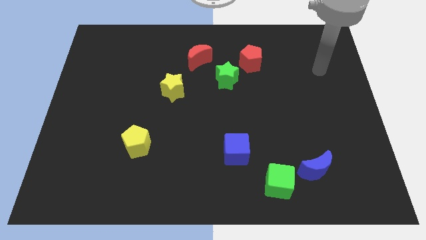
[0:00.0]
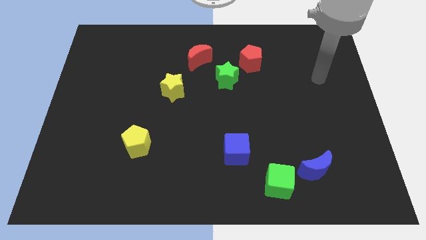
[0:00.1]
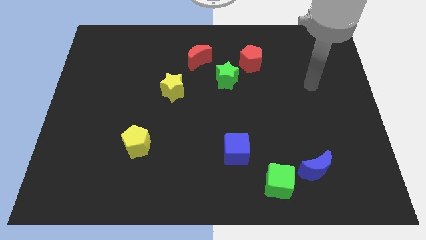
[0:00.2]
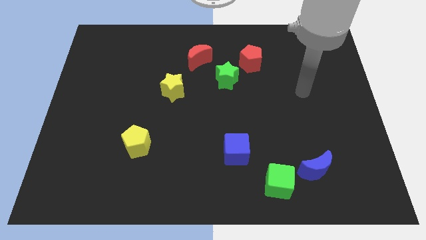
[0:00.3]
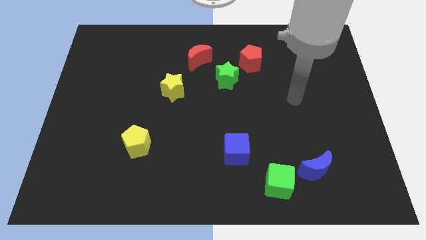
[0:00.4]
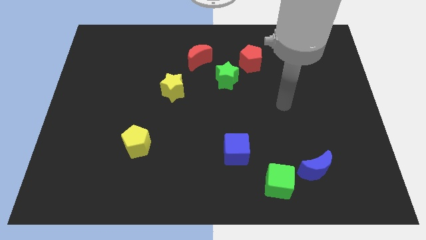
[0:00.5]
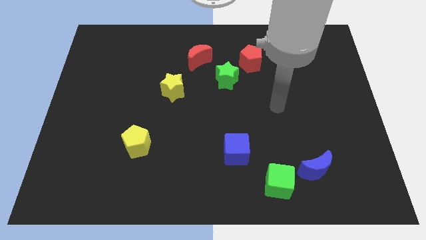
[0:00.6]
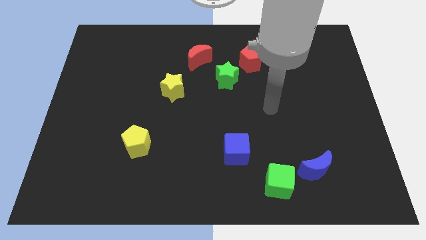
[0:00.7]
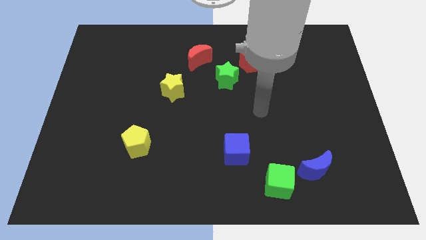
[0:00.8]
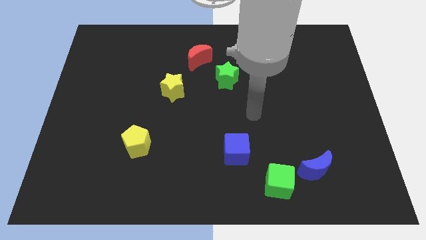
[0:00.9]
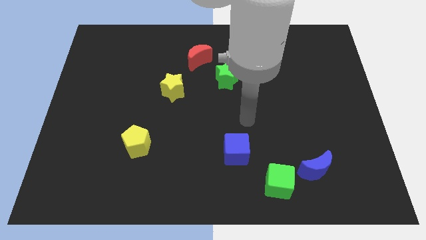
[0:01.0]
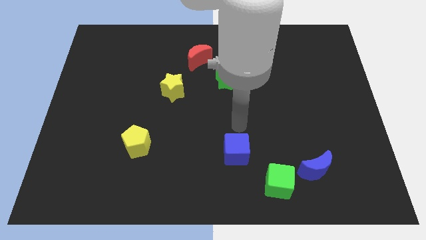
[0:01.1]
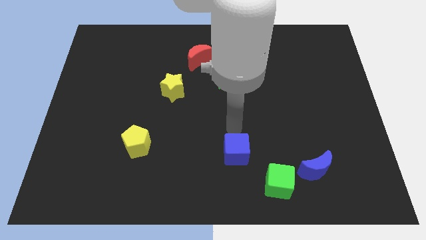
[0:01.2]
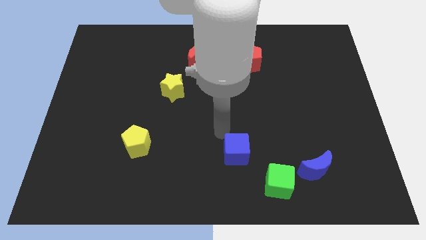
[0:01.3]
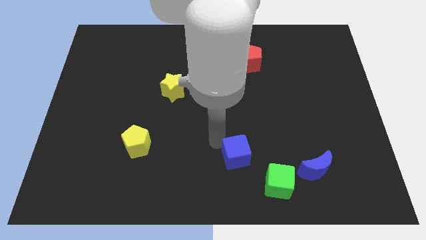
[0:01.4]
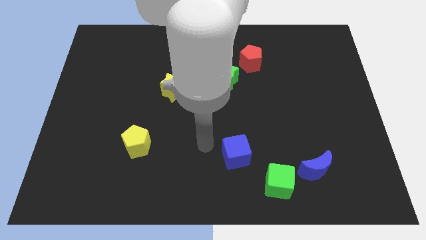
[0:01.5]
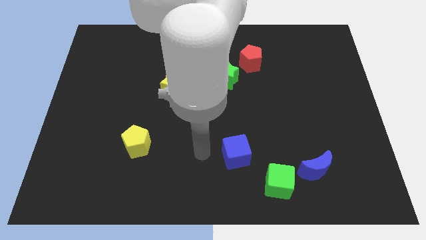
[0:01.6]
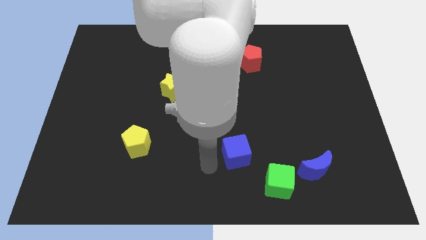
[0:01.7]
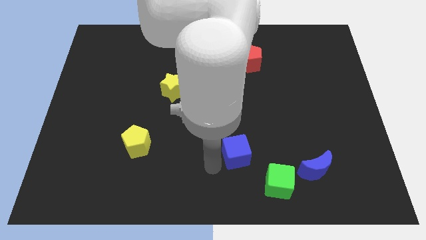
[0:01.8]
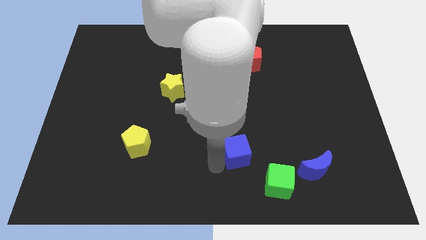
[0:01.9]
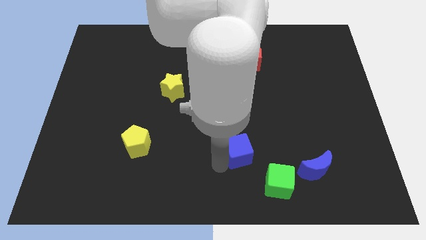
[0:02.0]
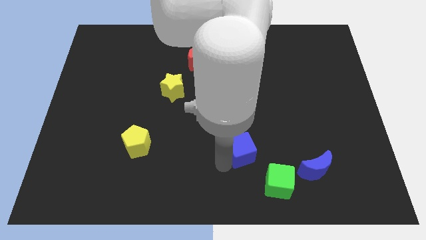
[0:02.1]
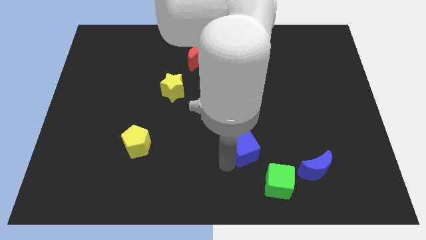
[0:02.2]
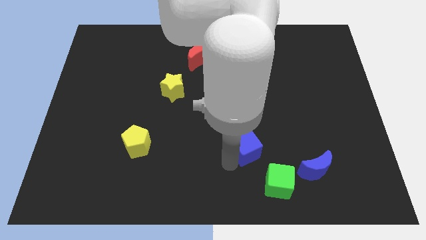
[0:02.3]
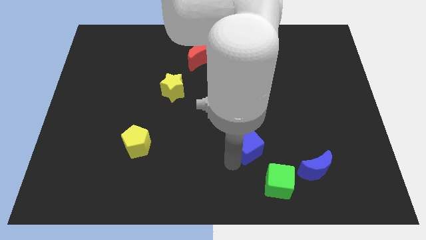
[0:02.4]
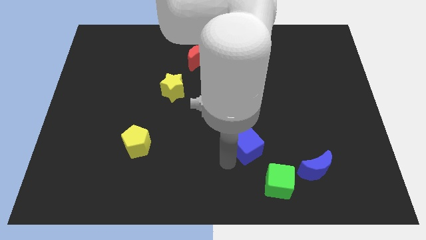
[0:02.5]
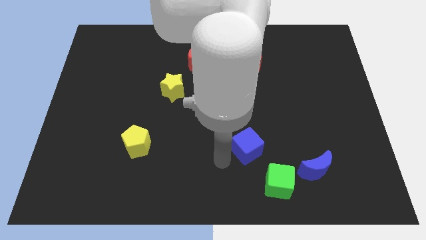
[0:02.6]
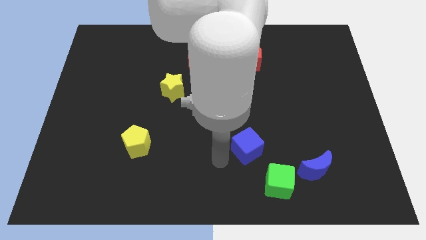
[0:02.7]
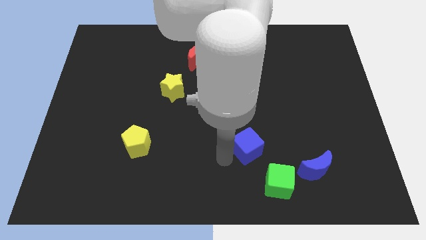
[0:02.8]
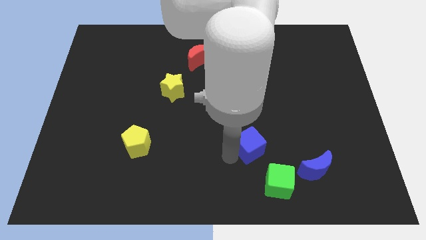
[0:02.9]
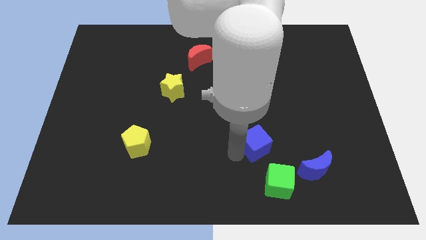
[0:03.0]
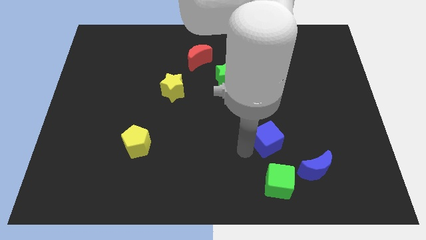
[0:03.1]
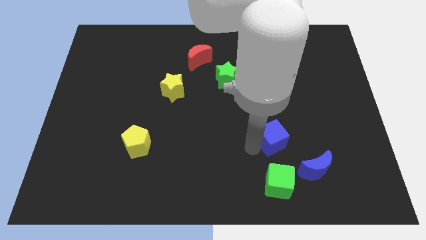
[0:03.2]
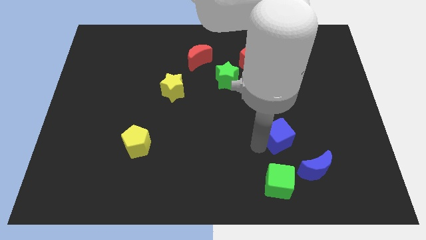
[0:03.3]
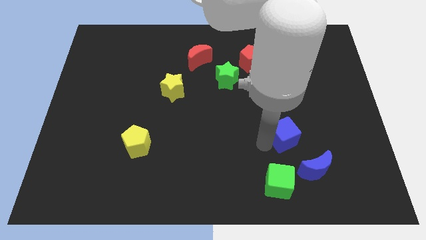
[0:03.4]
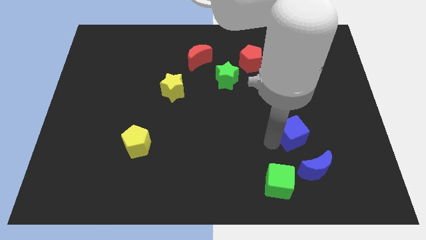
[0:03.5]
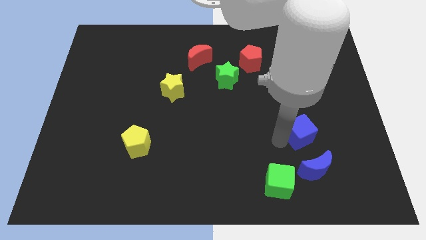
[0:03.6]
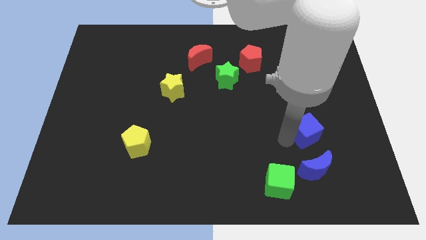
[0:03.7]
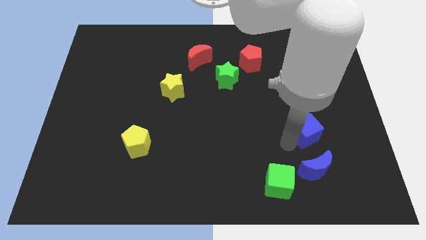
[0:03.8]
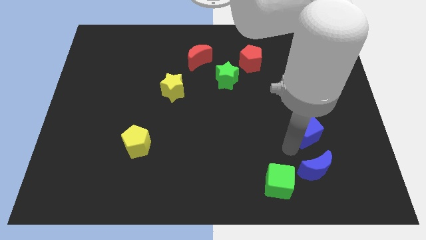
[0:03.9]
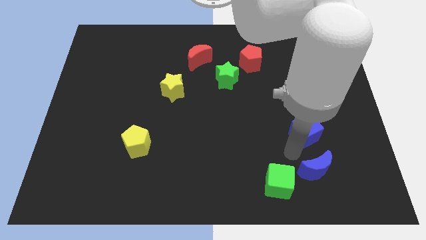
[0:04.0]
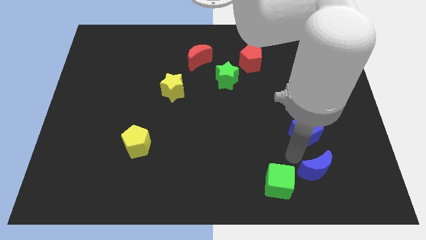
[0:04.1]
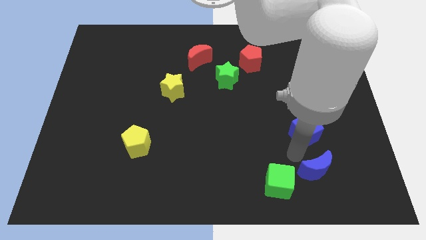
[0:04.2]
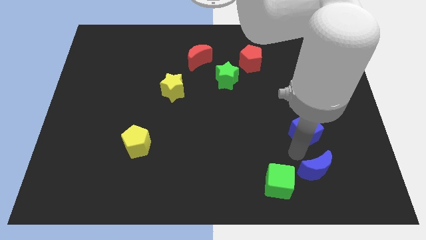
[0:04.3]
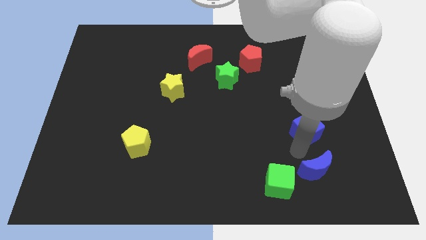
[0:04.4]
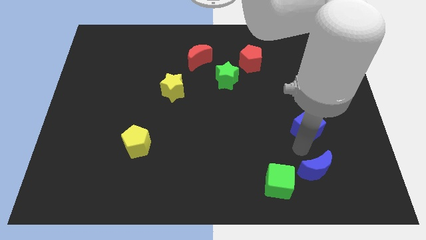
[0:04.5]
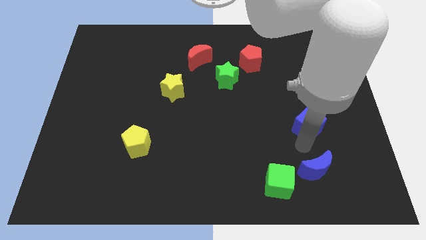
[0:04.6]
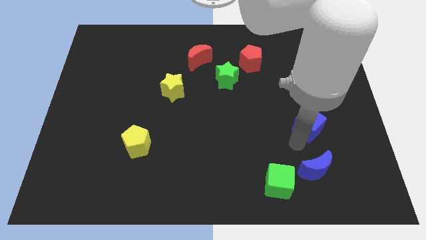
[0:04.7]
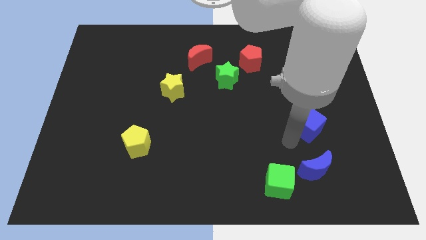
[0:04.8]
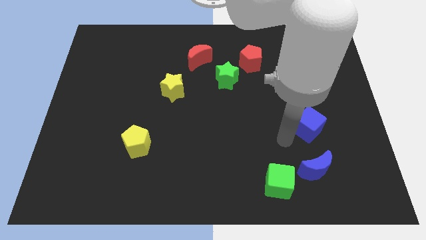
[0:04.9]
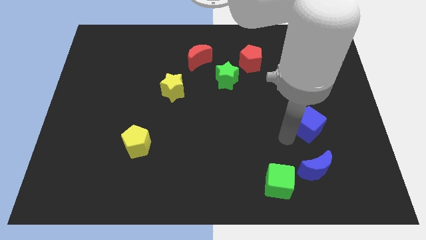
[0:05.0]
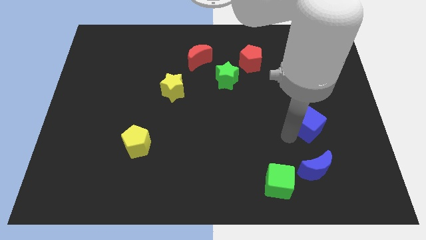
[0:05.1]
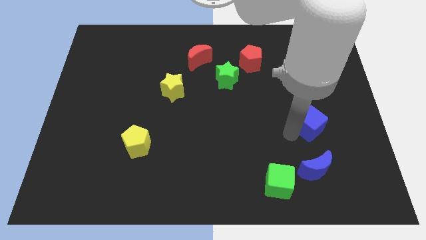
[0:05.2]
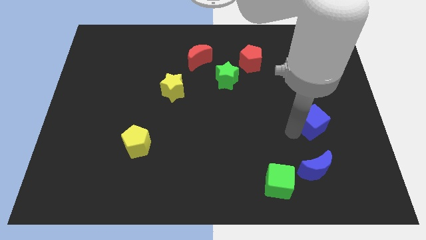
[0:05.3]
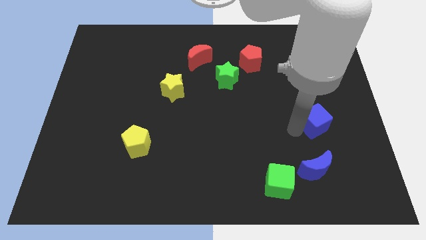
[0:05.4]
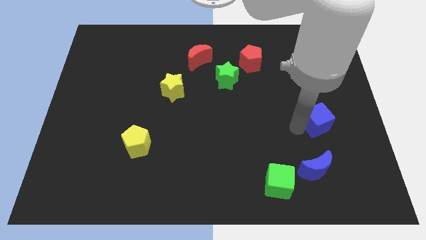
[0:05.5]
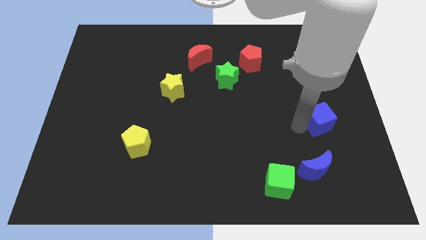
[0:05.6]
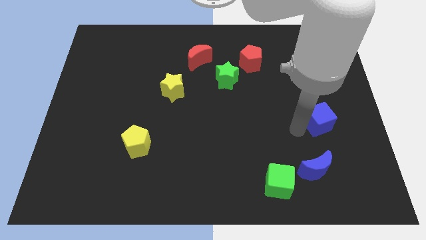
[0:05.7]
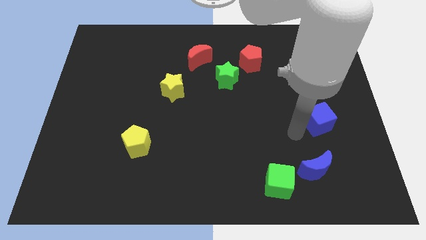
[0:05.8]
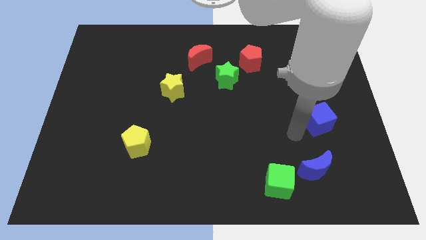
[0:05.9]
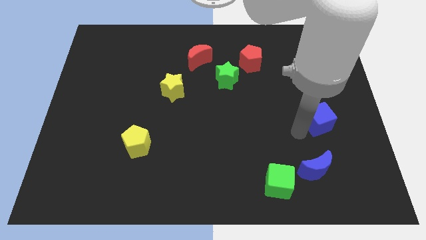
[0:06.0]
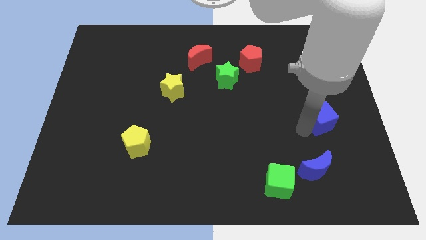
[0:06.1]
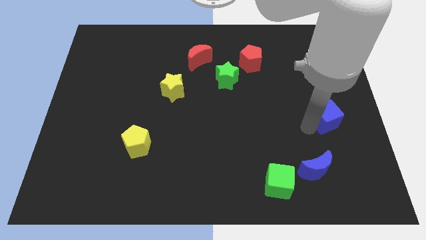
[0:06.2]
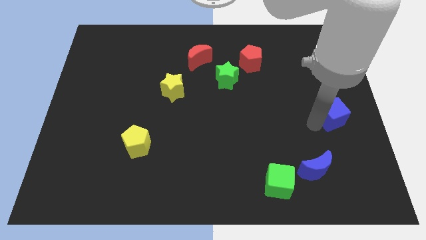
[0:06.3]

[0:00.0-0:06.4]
move the blue cube to the right side of the board

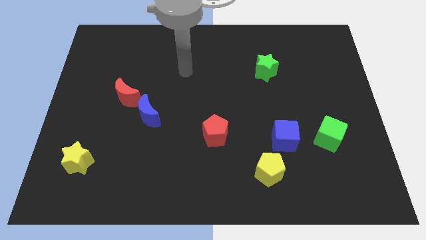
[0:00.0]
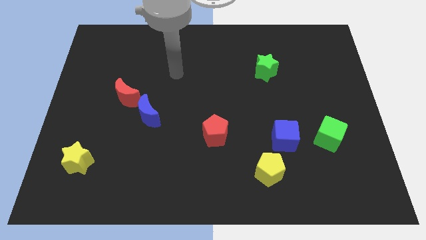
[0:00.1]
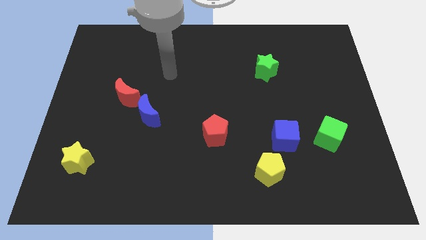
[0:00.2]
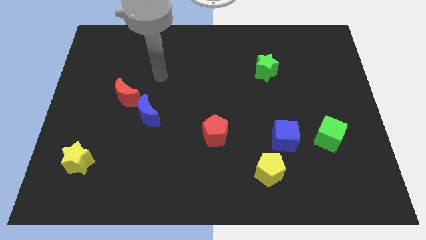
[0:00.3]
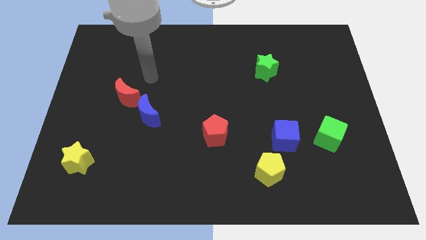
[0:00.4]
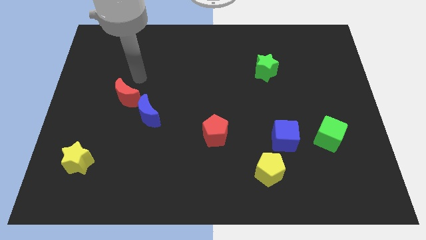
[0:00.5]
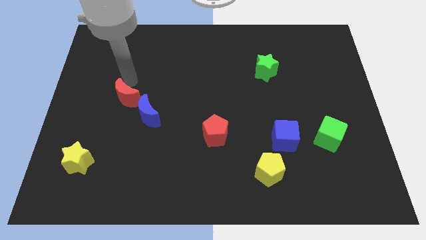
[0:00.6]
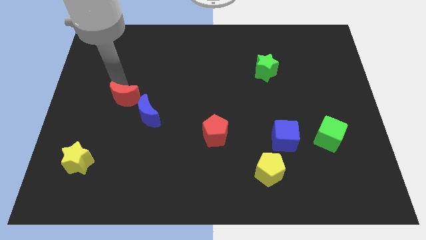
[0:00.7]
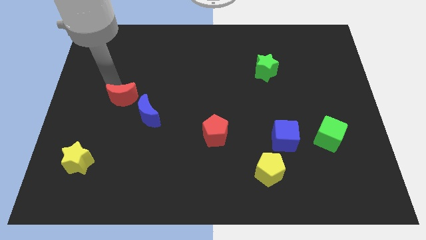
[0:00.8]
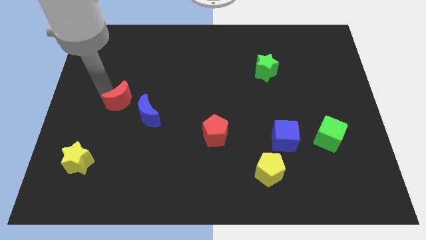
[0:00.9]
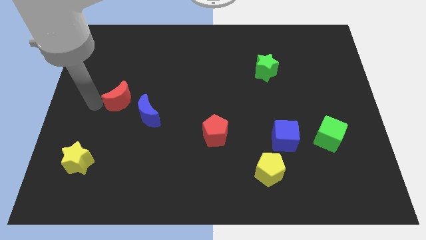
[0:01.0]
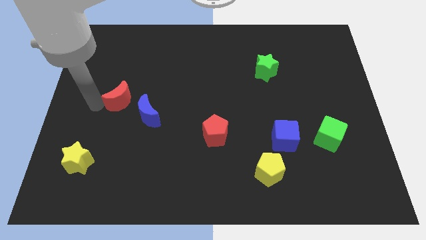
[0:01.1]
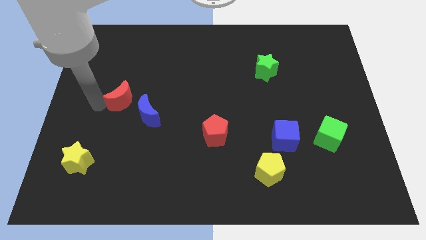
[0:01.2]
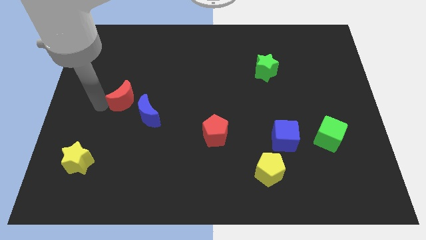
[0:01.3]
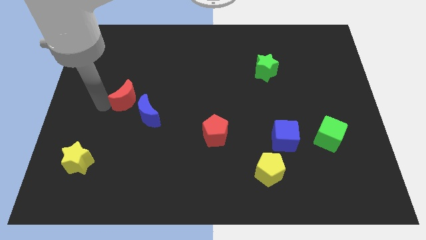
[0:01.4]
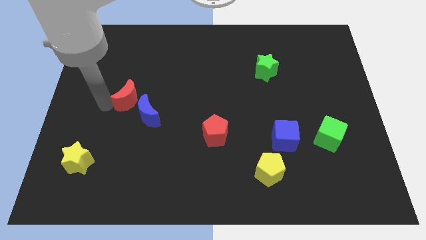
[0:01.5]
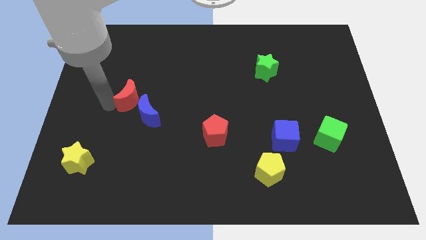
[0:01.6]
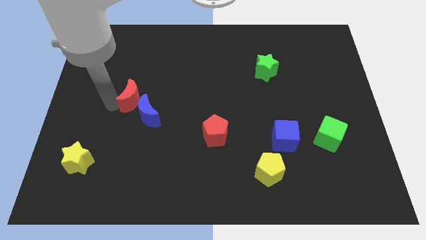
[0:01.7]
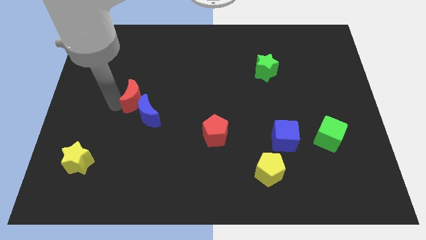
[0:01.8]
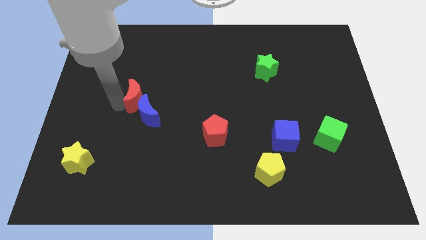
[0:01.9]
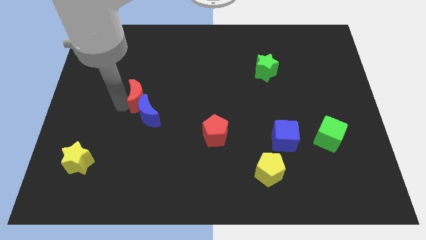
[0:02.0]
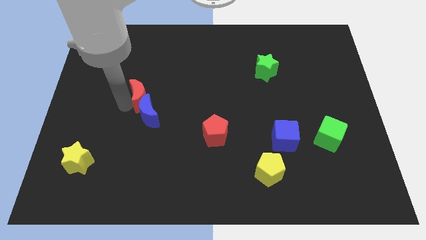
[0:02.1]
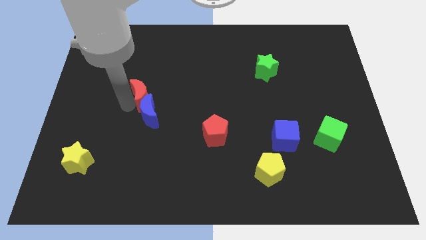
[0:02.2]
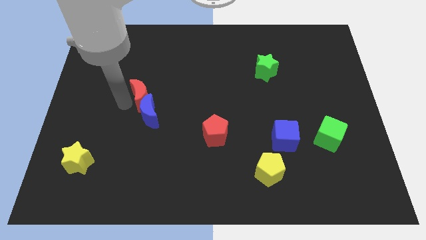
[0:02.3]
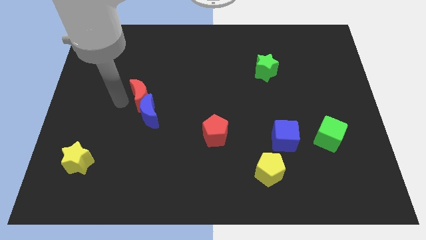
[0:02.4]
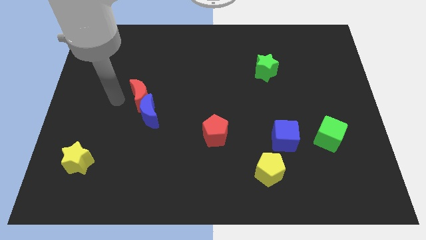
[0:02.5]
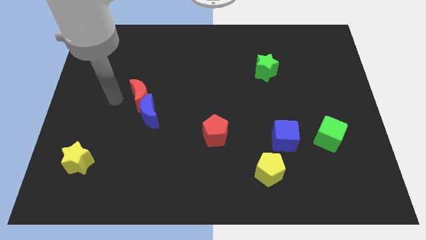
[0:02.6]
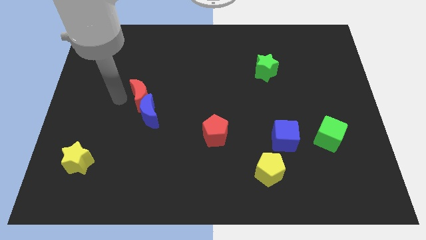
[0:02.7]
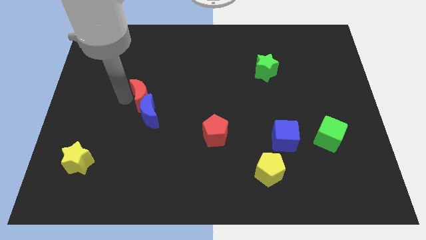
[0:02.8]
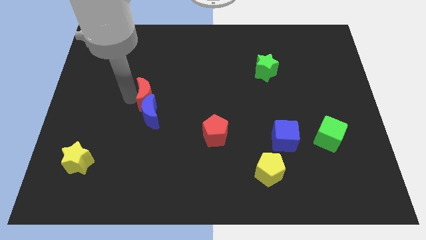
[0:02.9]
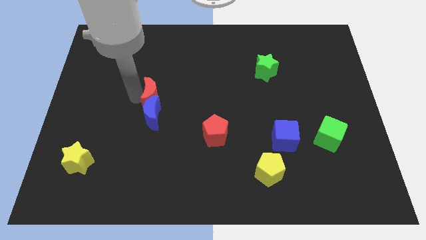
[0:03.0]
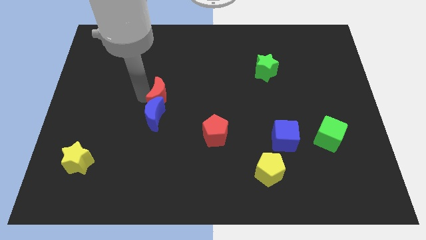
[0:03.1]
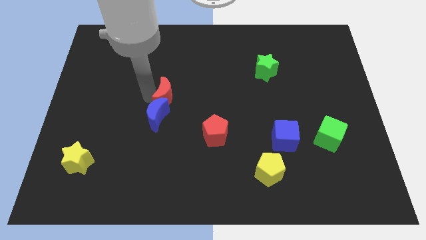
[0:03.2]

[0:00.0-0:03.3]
put the red moon to the center
